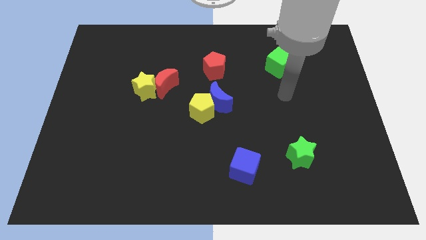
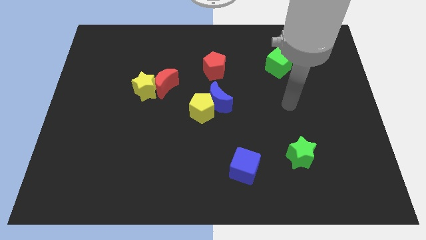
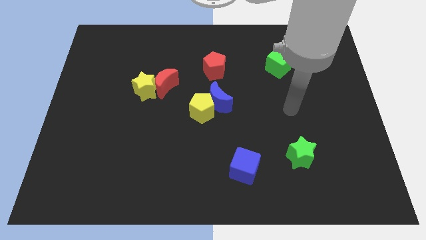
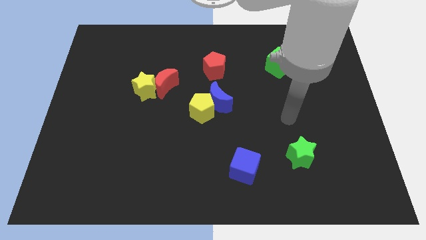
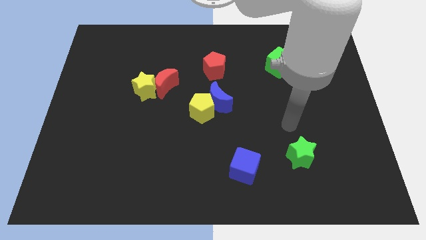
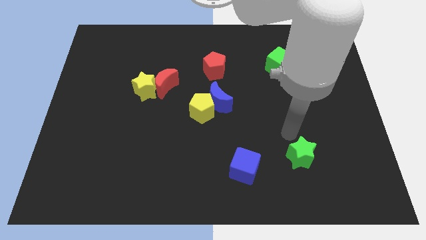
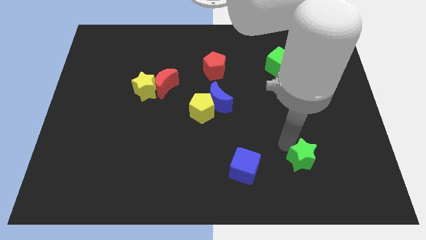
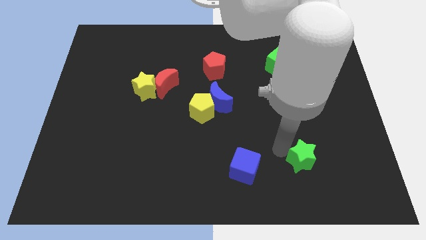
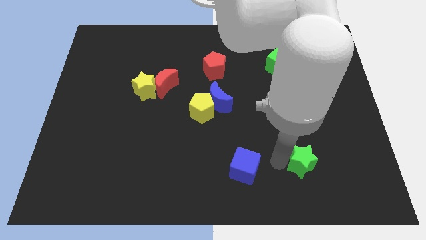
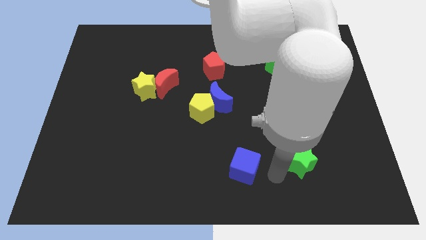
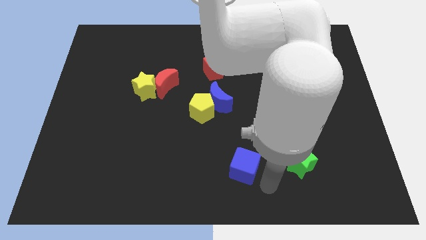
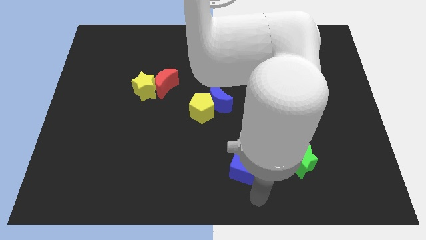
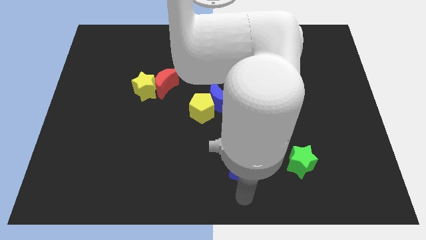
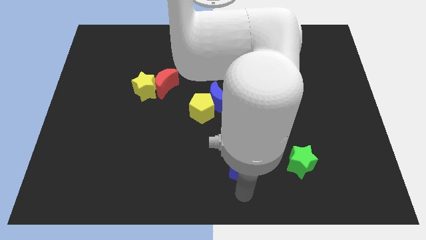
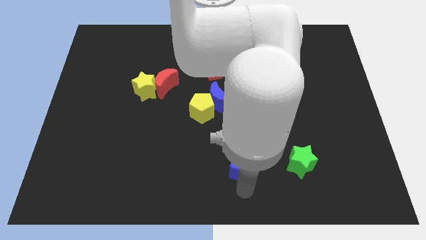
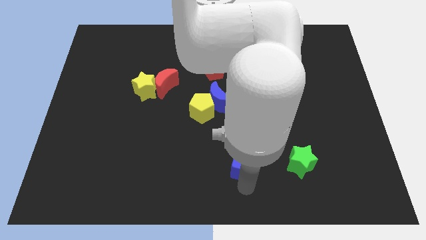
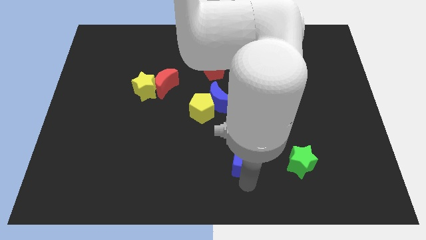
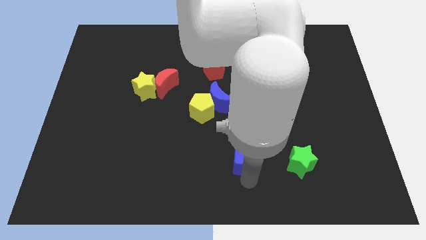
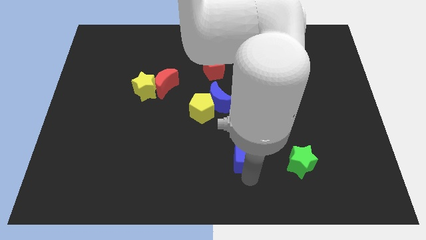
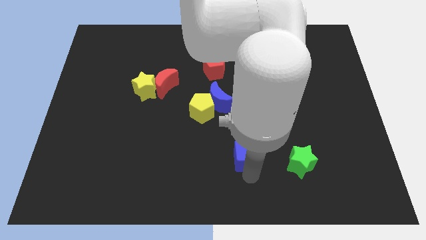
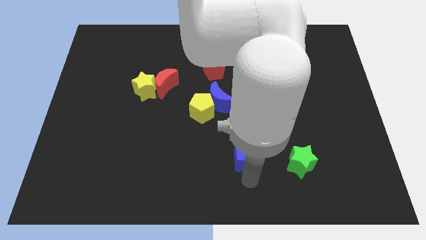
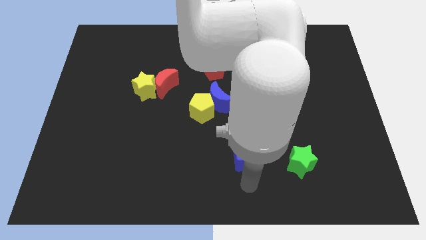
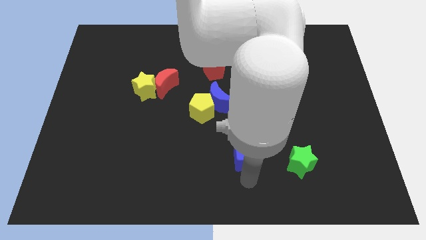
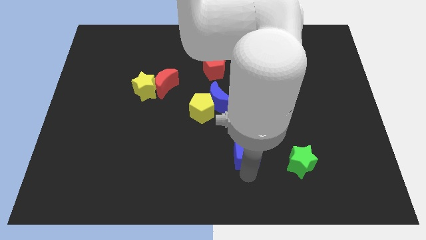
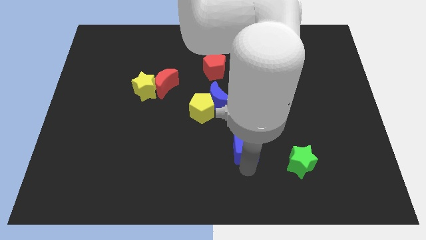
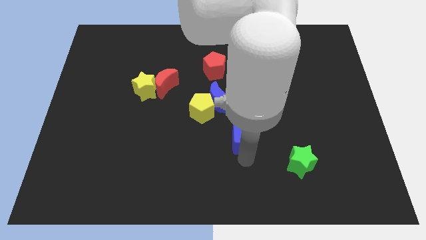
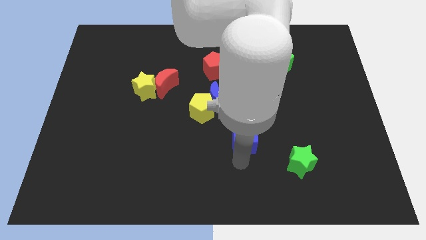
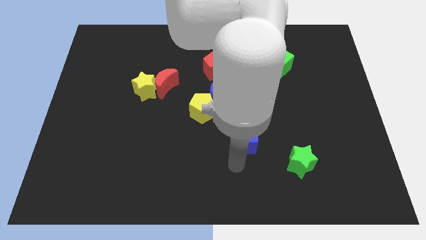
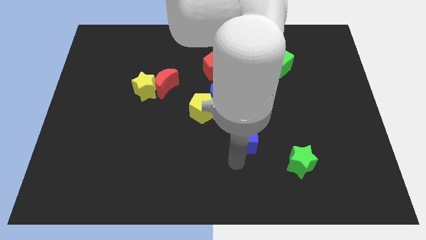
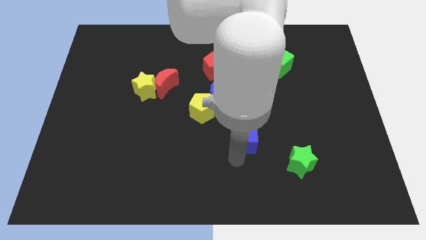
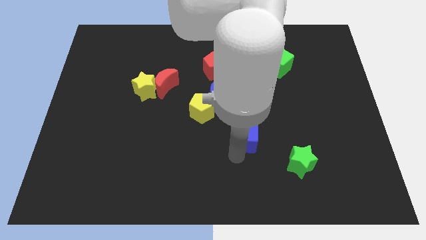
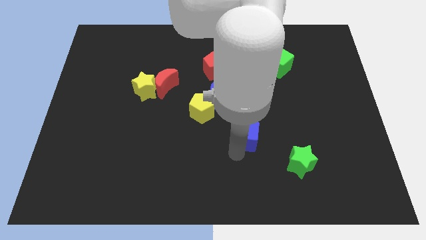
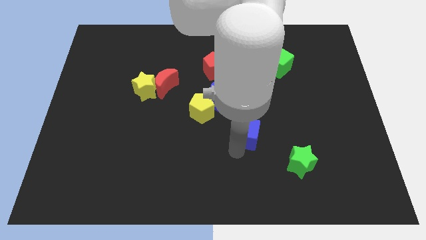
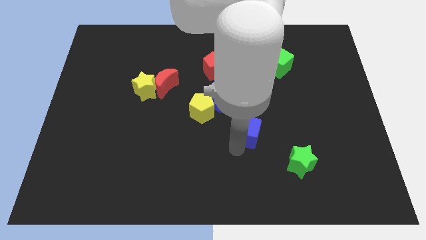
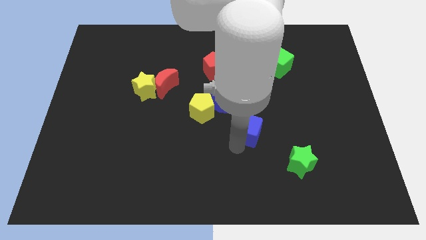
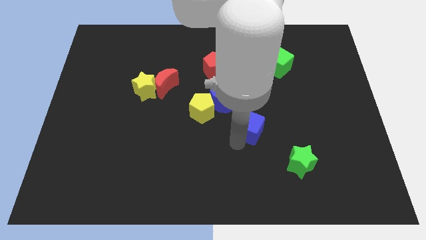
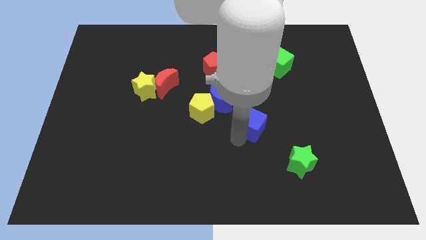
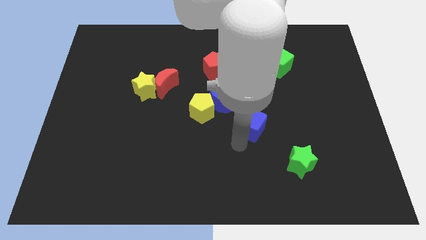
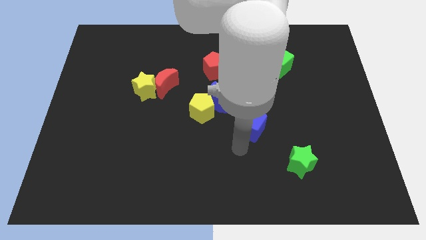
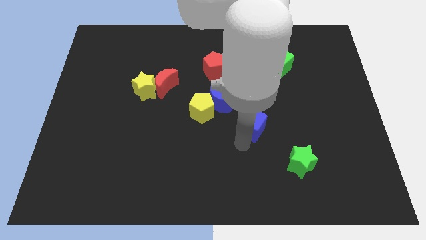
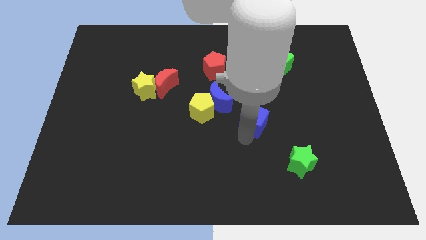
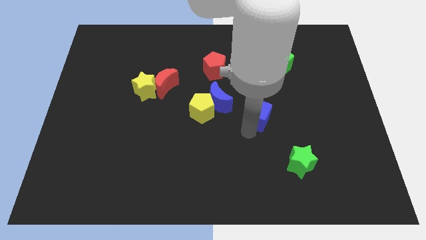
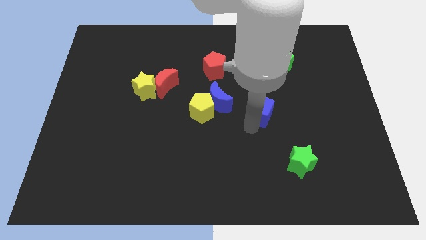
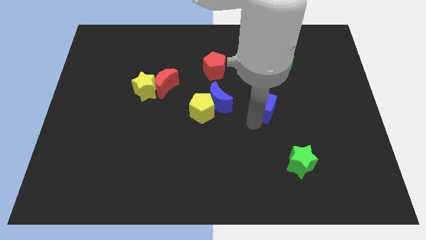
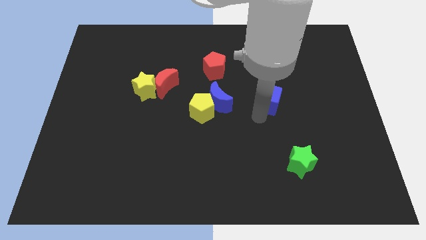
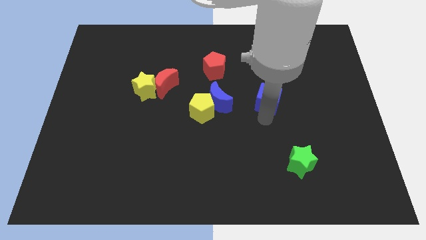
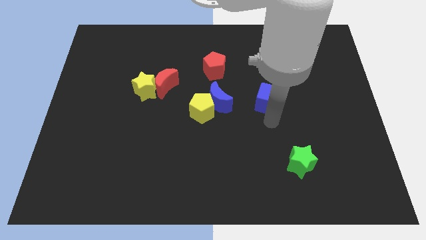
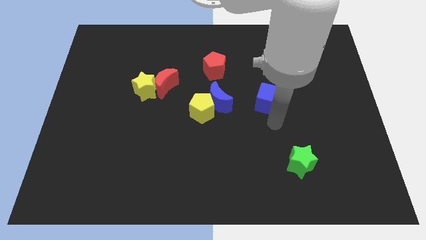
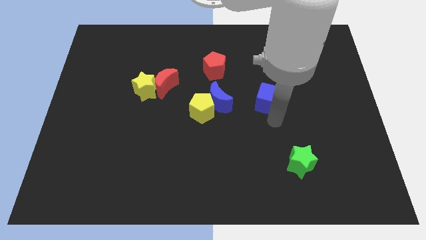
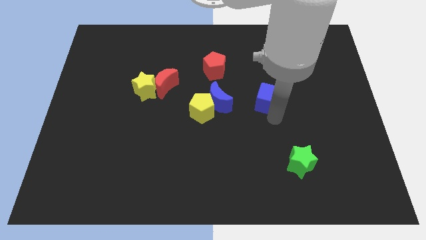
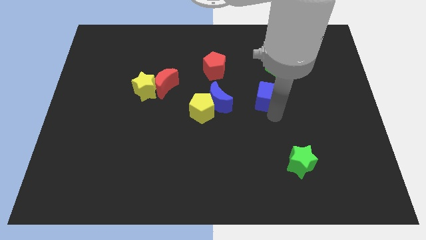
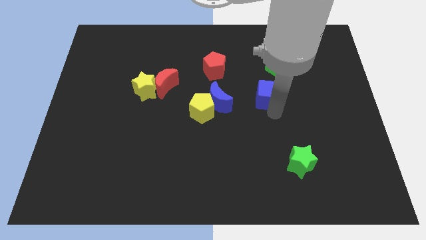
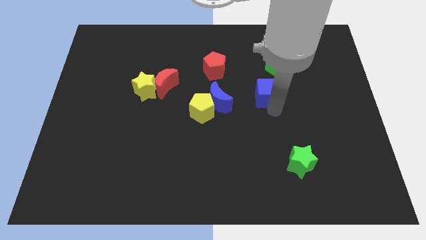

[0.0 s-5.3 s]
put the blue cube diagonally down and to the left of the green cube

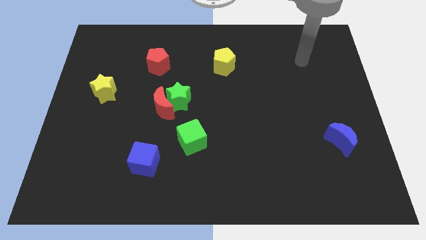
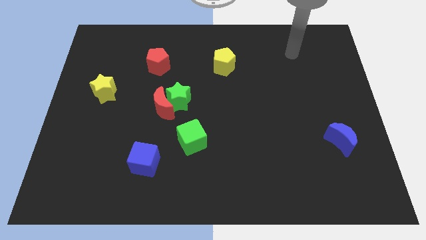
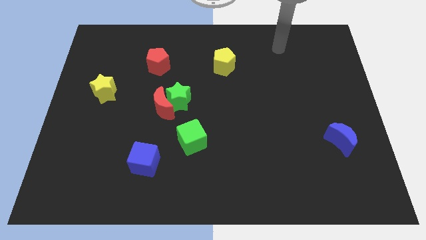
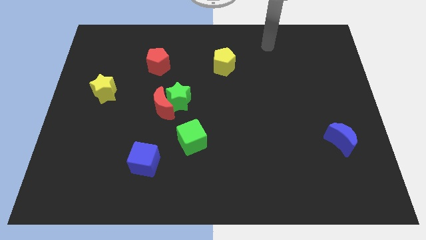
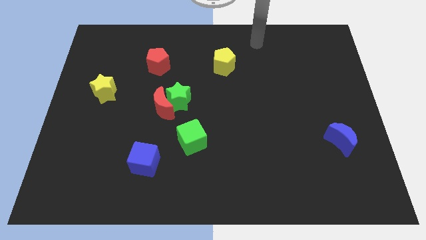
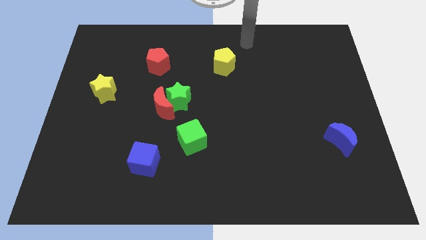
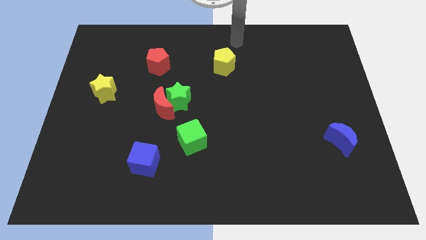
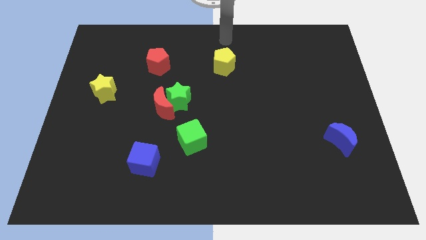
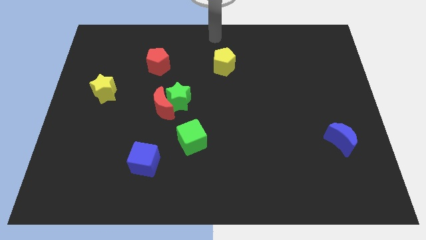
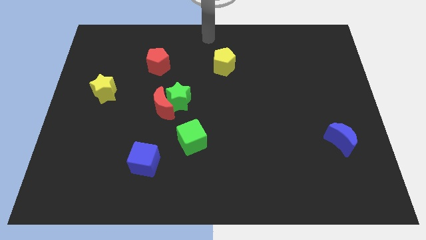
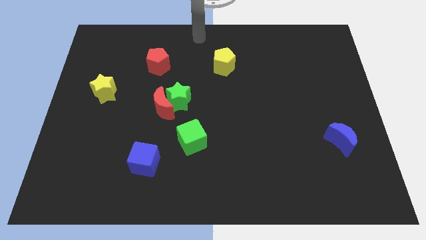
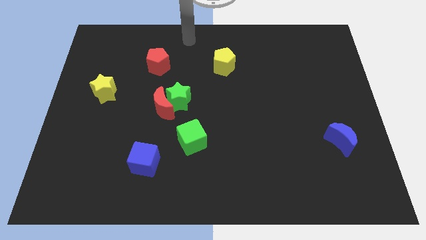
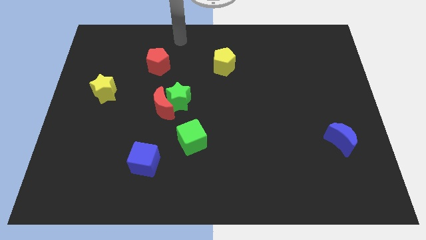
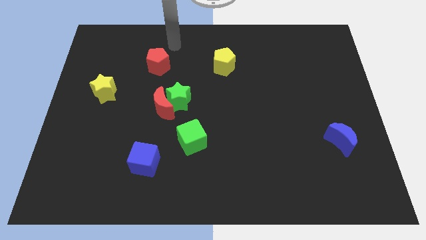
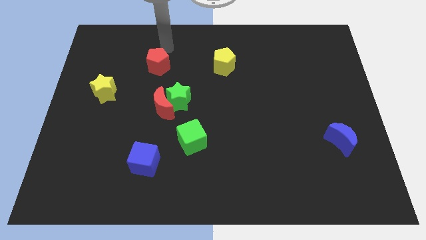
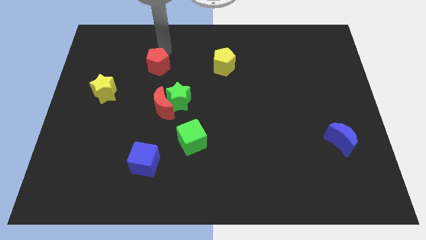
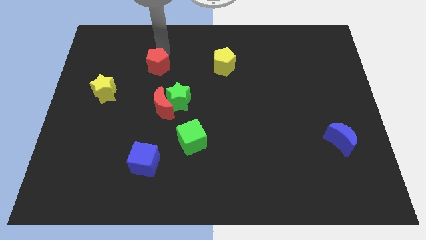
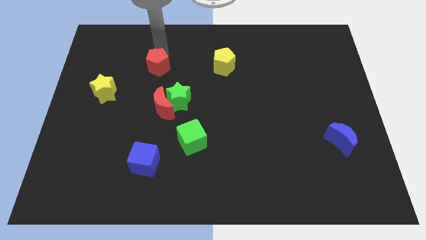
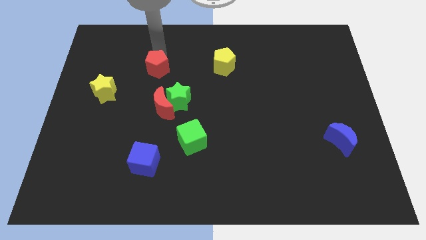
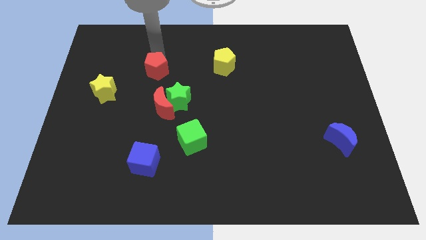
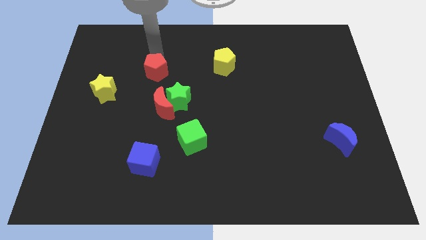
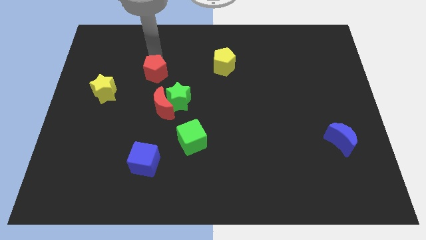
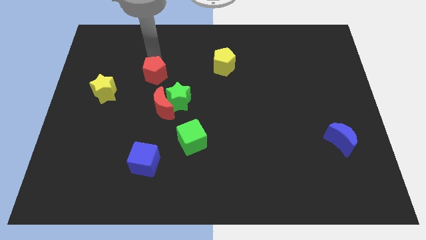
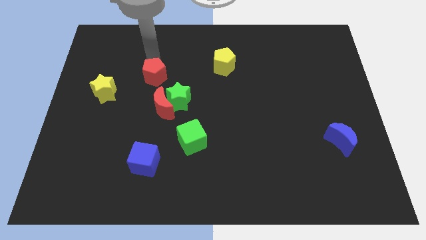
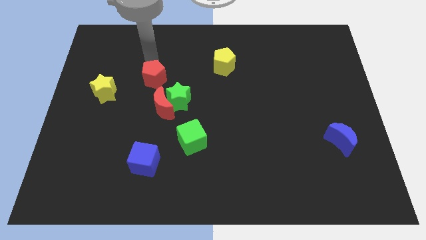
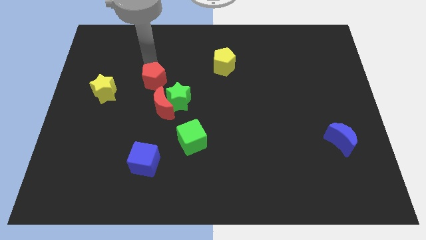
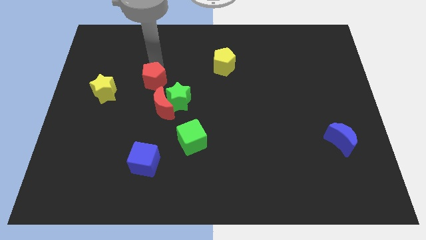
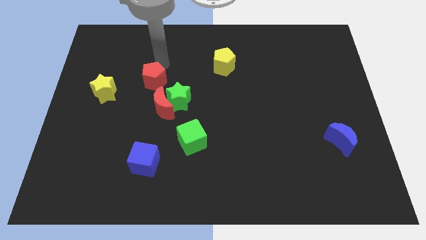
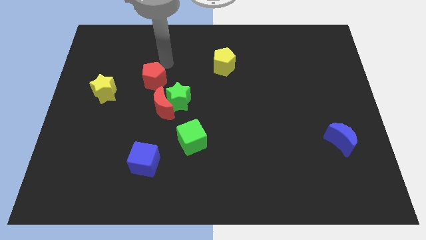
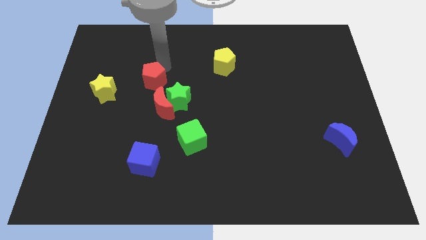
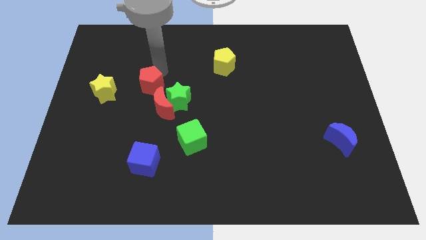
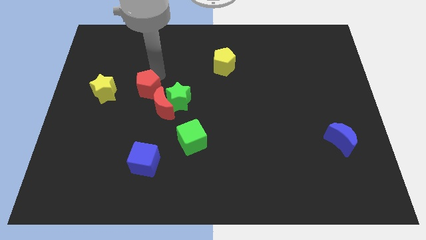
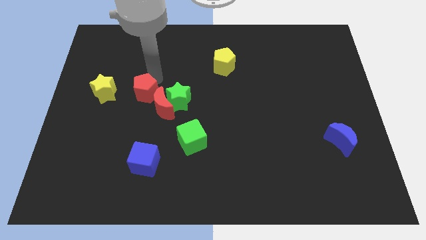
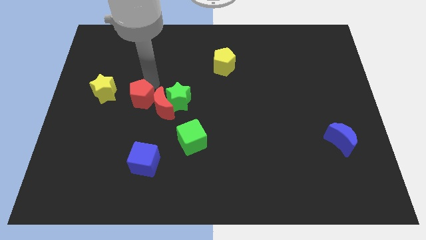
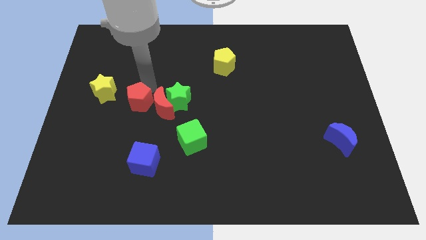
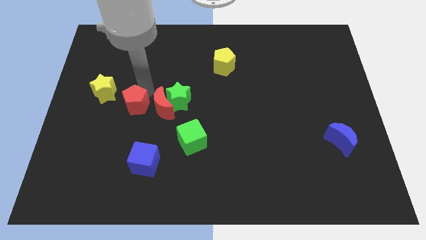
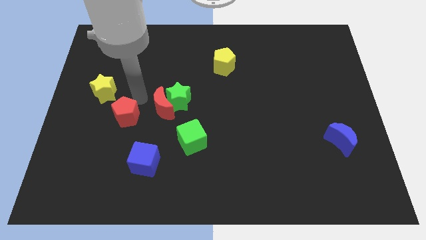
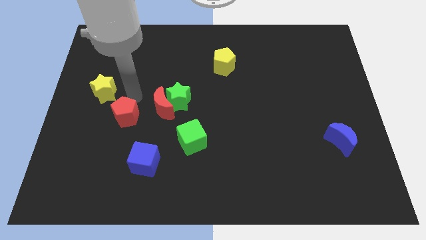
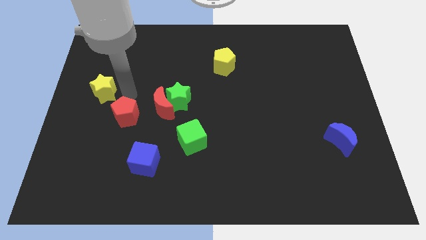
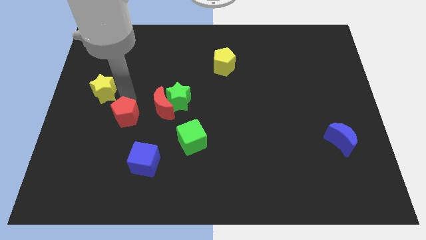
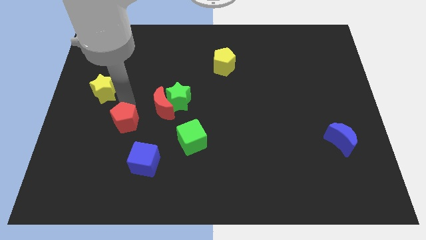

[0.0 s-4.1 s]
put the red pentagon to the top left side of the blue cube
